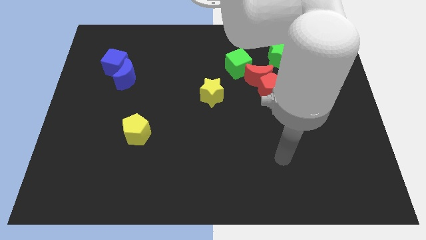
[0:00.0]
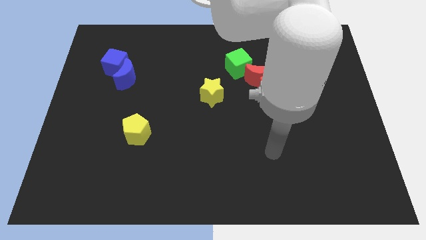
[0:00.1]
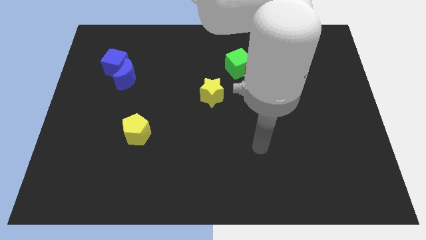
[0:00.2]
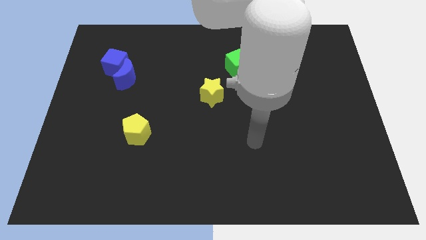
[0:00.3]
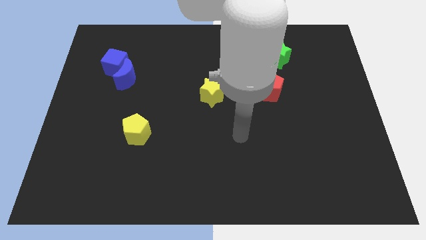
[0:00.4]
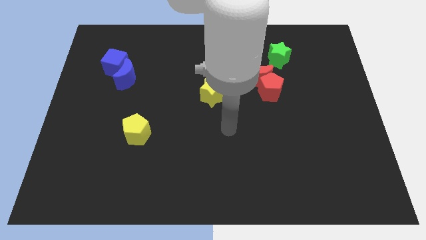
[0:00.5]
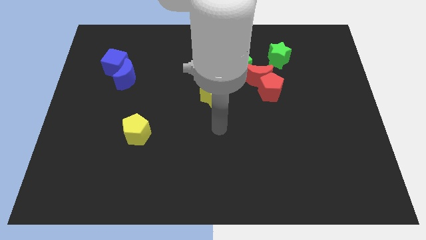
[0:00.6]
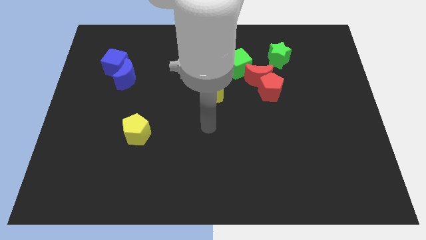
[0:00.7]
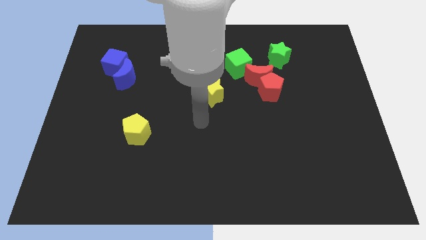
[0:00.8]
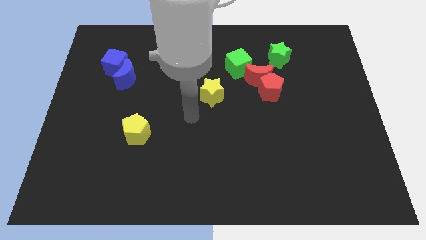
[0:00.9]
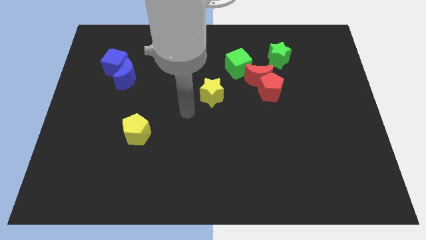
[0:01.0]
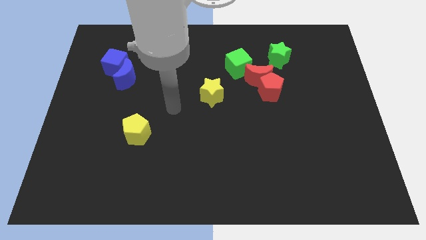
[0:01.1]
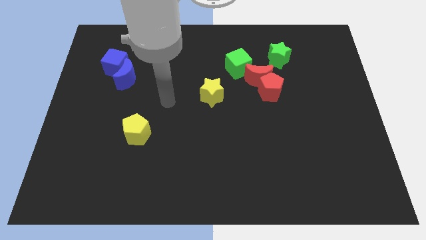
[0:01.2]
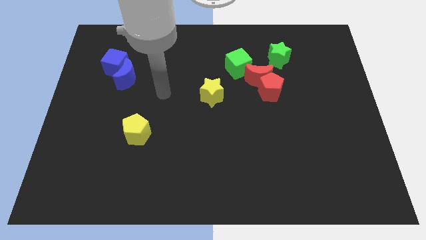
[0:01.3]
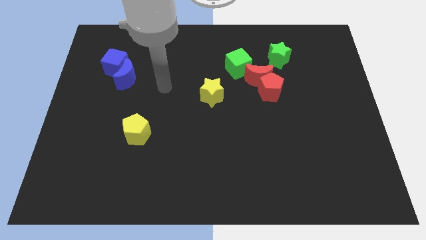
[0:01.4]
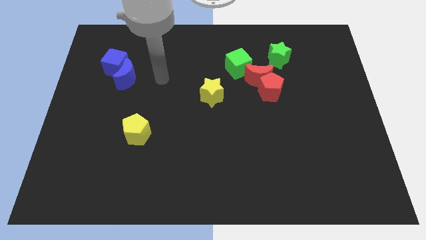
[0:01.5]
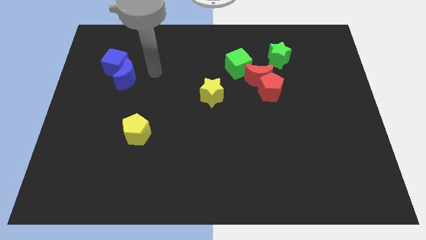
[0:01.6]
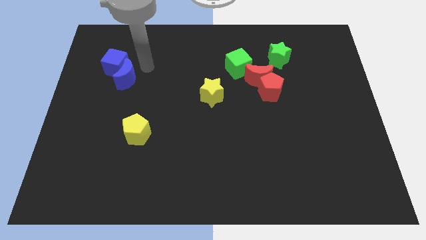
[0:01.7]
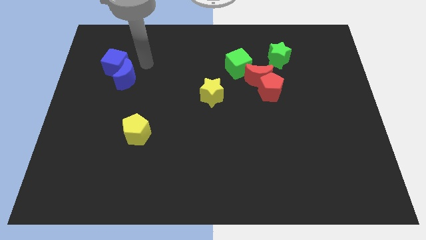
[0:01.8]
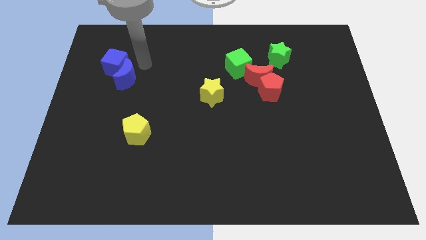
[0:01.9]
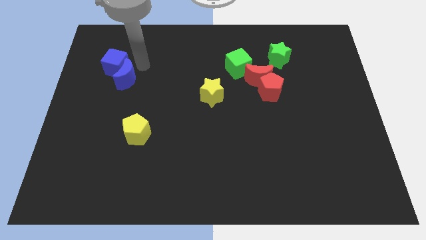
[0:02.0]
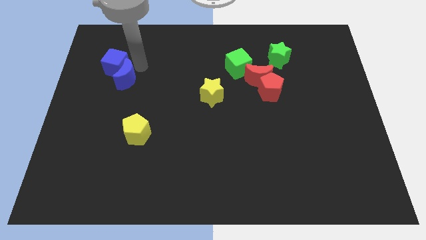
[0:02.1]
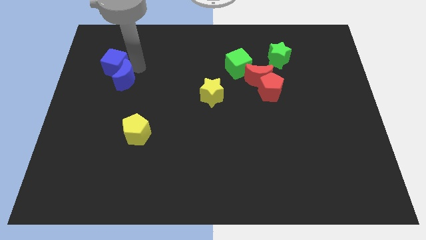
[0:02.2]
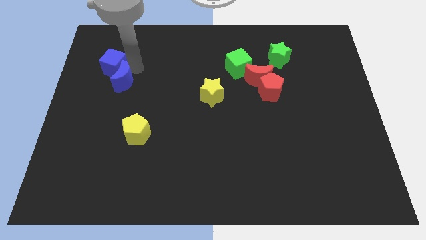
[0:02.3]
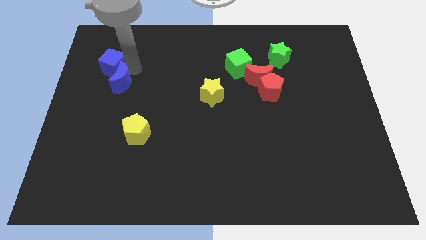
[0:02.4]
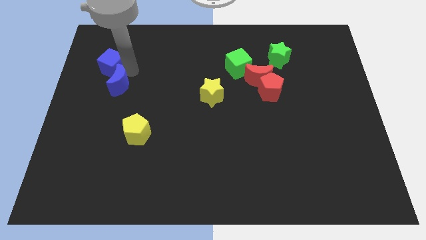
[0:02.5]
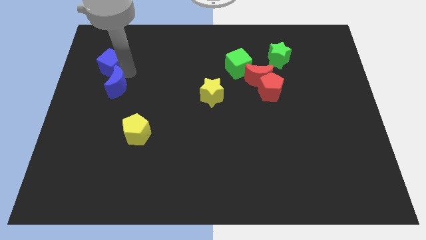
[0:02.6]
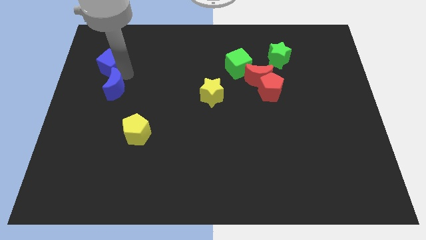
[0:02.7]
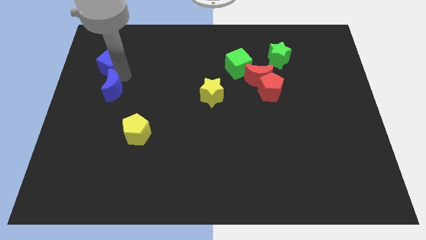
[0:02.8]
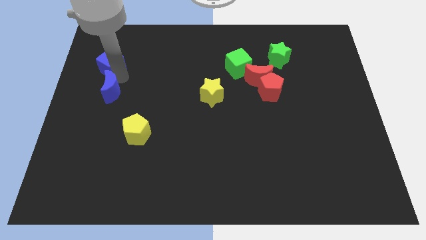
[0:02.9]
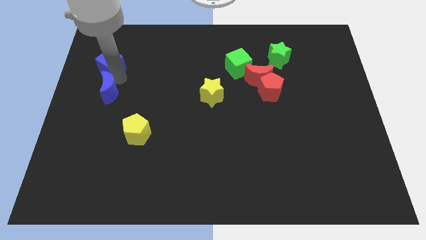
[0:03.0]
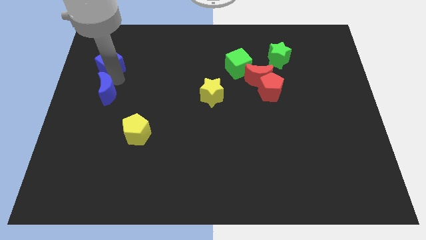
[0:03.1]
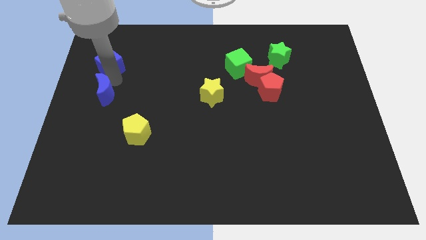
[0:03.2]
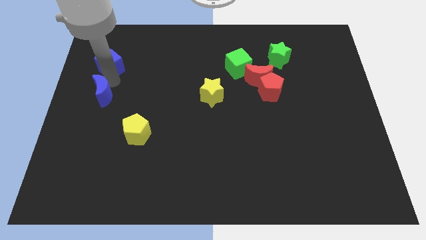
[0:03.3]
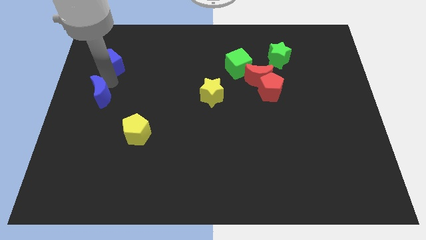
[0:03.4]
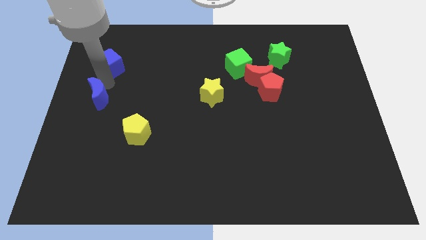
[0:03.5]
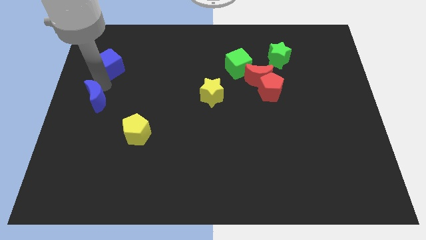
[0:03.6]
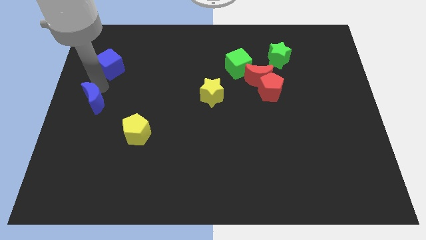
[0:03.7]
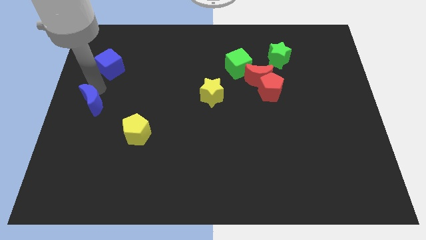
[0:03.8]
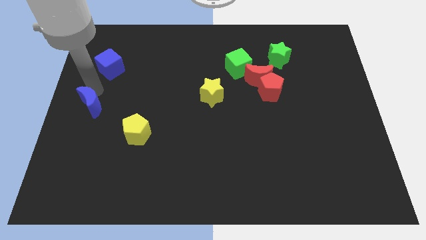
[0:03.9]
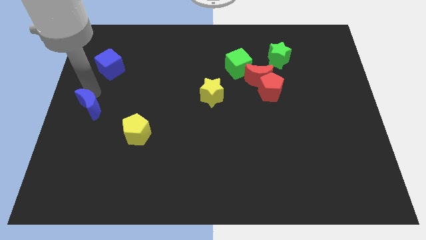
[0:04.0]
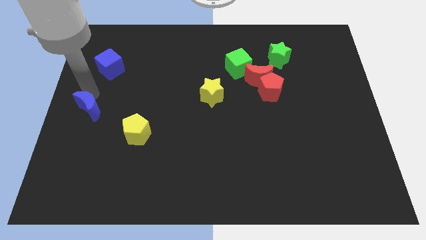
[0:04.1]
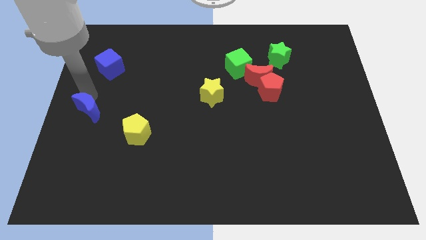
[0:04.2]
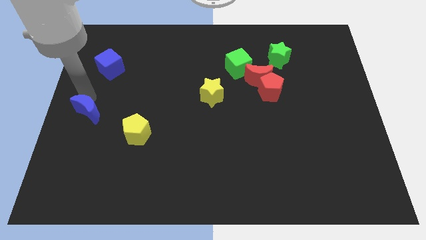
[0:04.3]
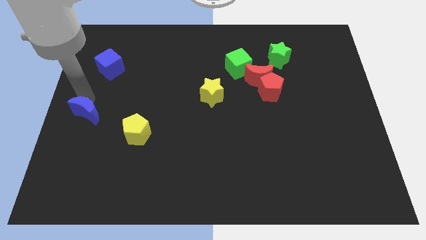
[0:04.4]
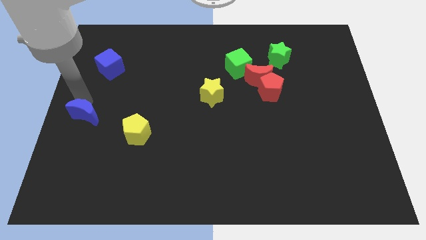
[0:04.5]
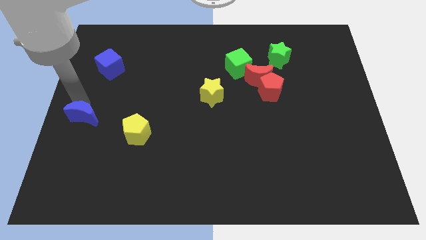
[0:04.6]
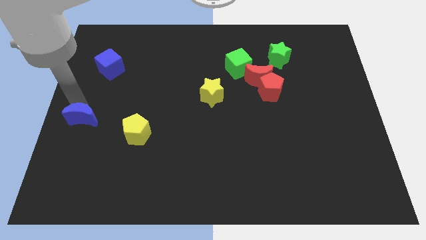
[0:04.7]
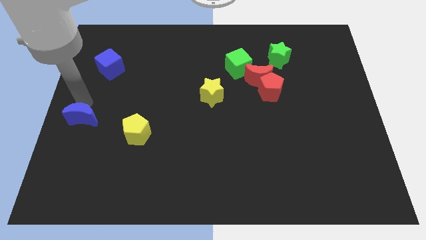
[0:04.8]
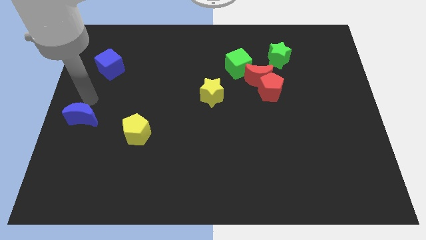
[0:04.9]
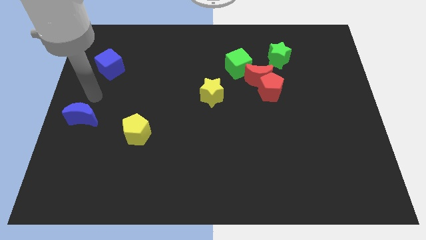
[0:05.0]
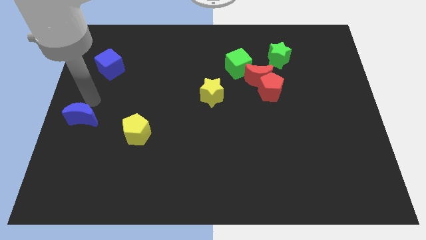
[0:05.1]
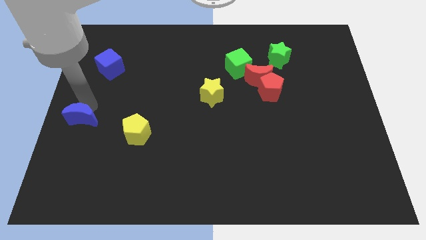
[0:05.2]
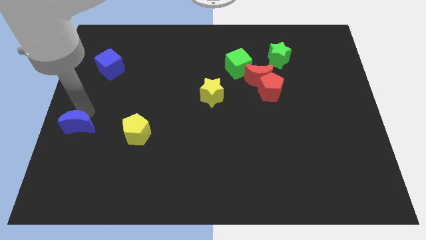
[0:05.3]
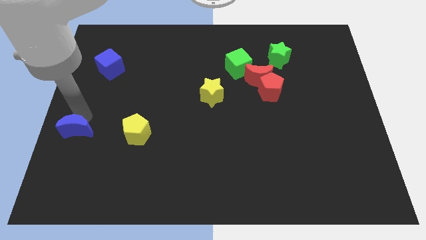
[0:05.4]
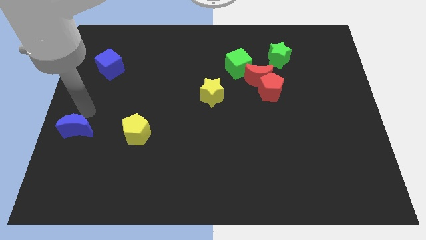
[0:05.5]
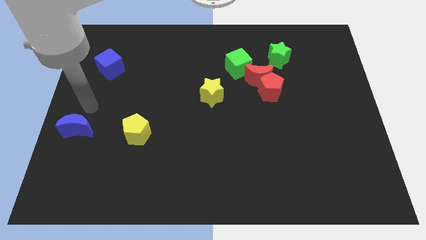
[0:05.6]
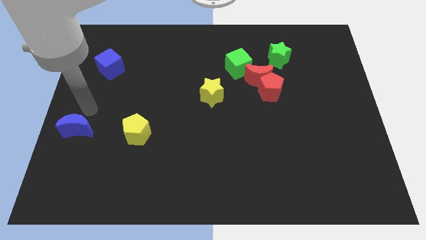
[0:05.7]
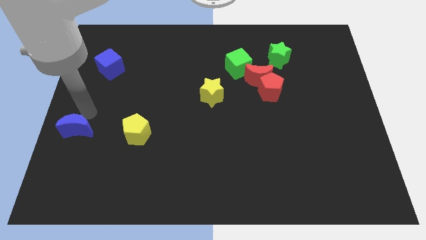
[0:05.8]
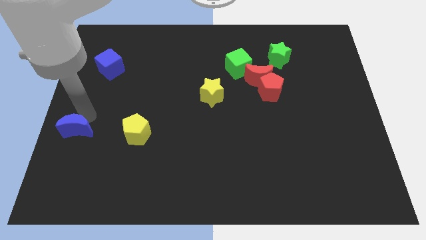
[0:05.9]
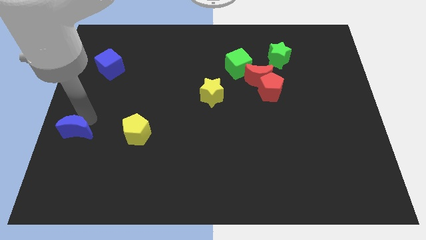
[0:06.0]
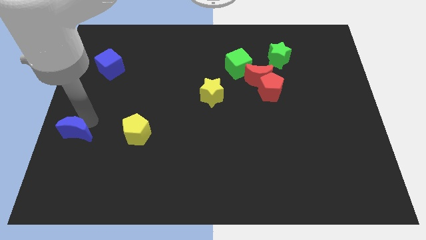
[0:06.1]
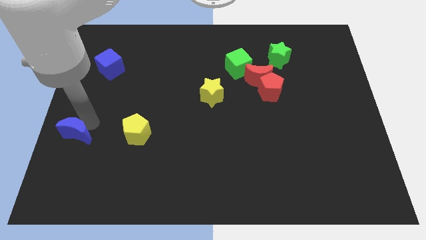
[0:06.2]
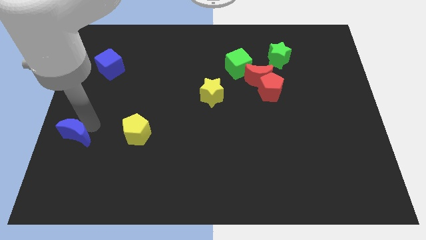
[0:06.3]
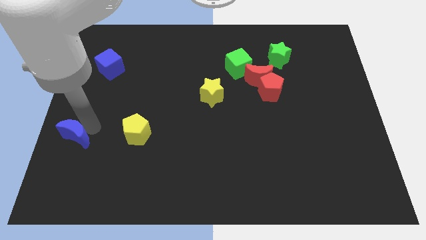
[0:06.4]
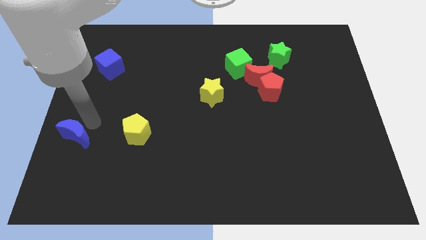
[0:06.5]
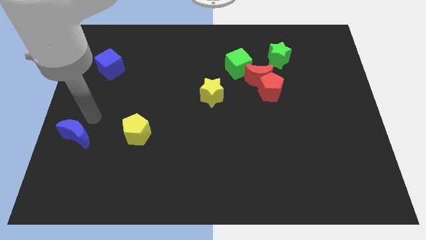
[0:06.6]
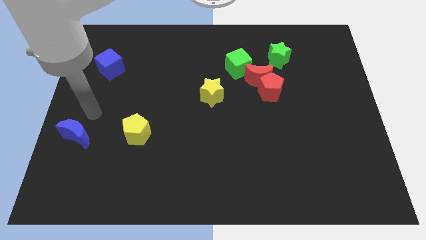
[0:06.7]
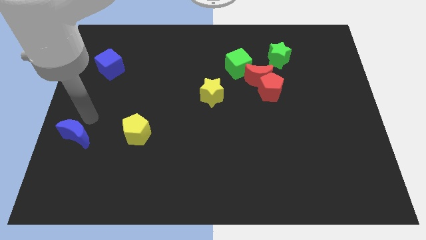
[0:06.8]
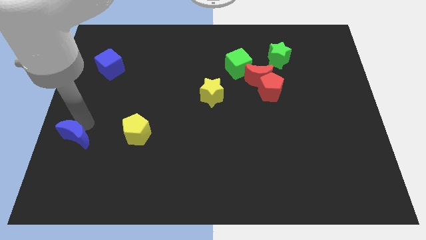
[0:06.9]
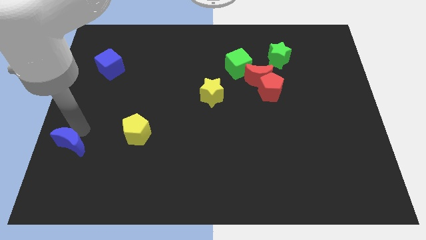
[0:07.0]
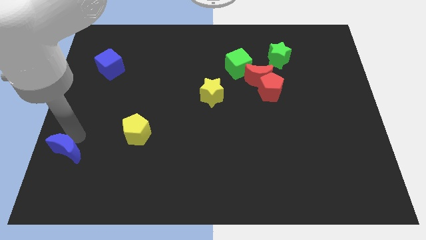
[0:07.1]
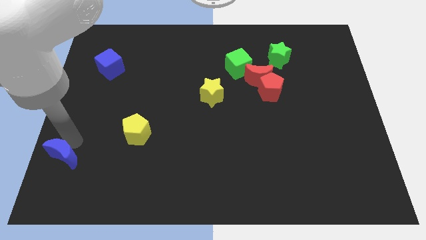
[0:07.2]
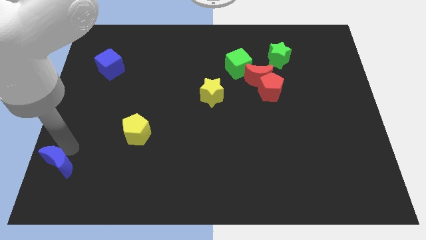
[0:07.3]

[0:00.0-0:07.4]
slide the blue moon to the lower left corner
